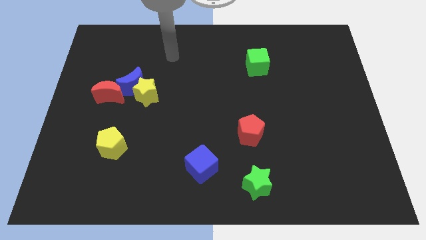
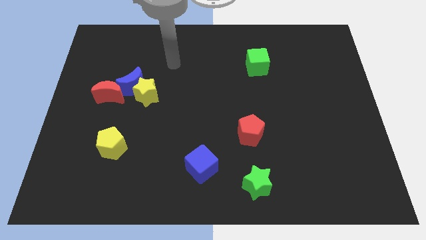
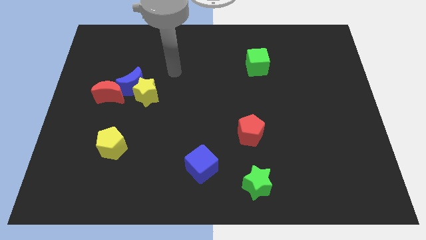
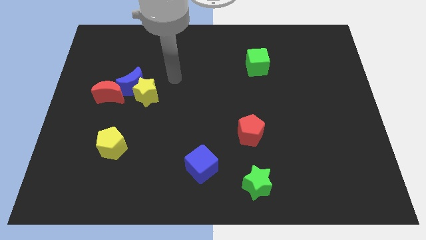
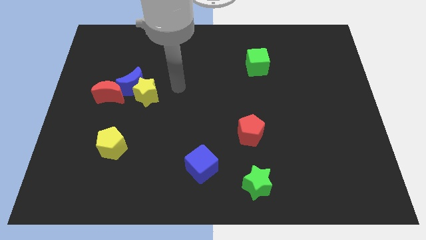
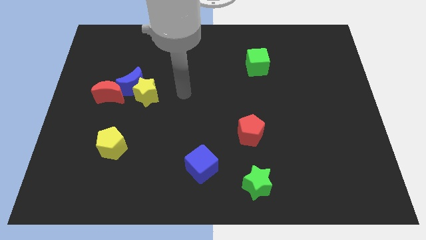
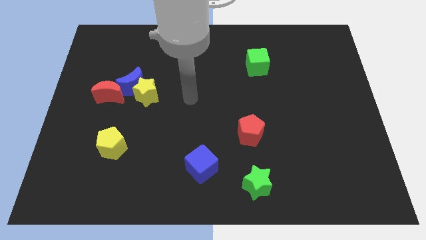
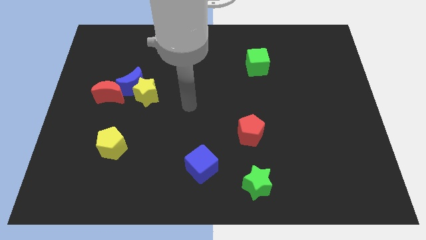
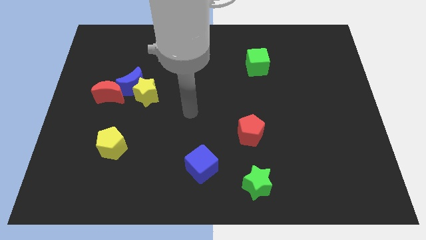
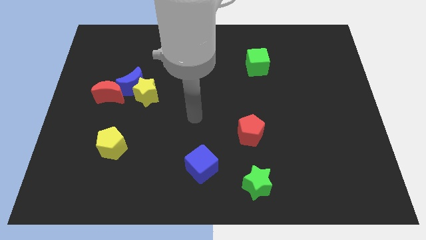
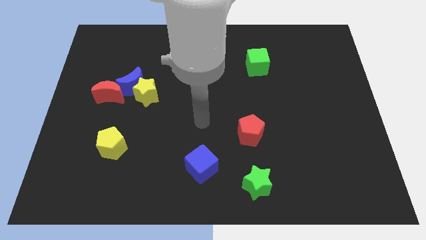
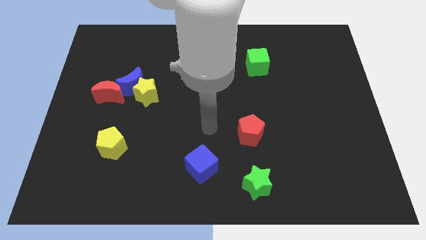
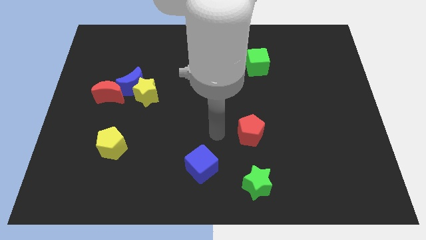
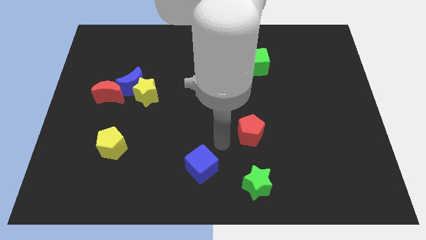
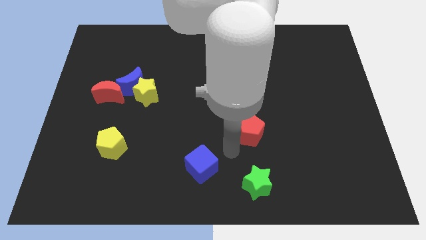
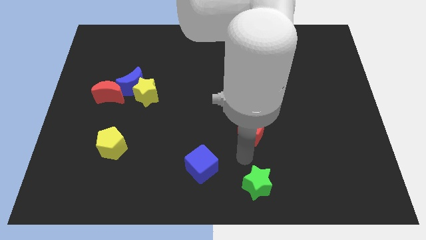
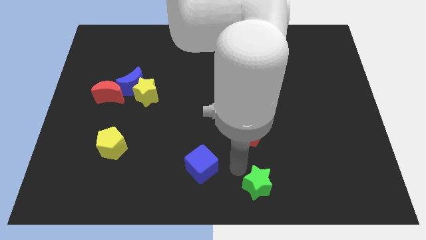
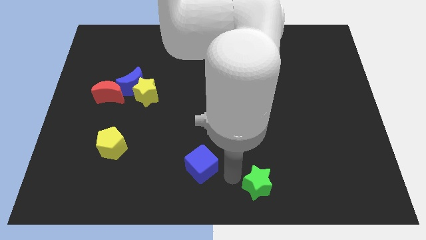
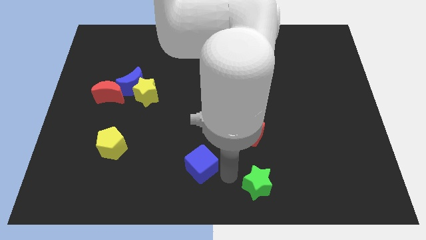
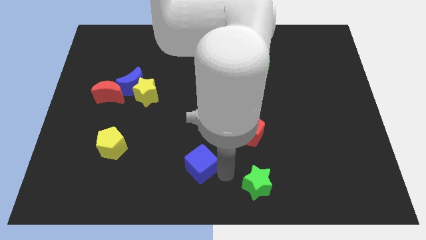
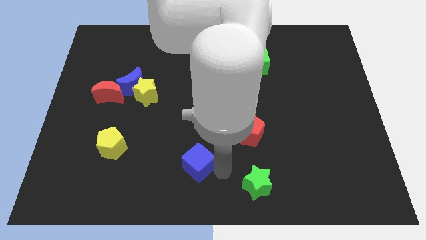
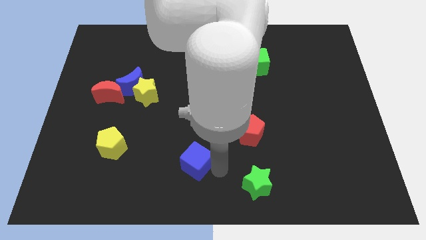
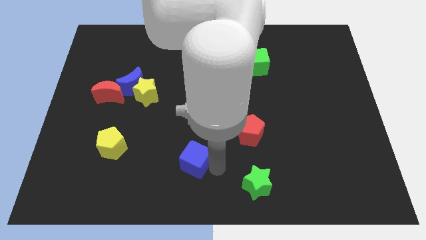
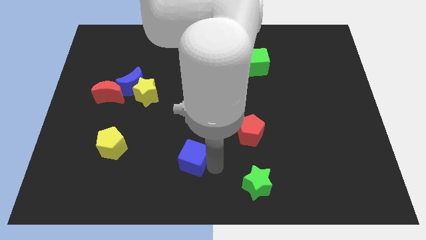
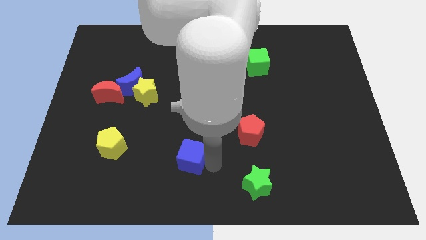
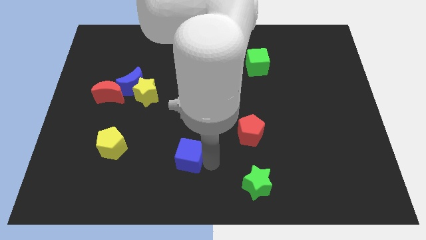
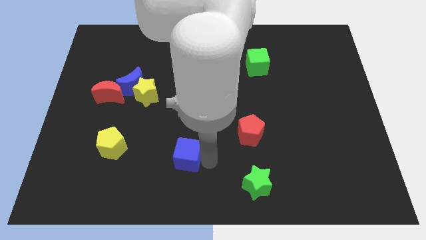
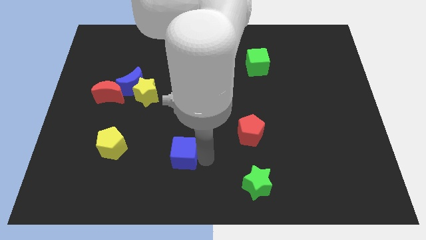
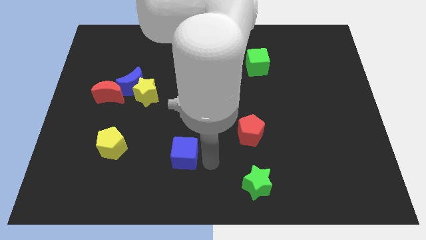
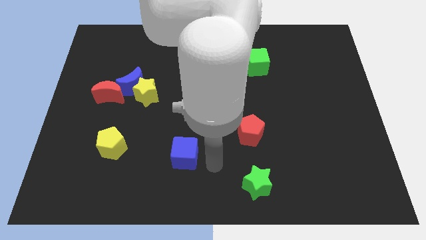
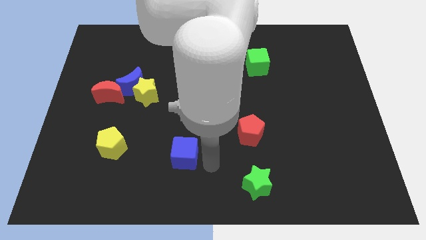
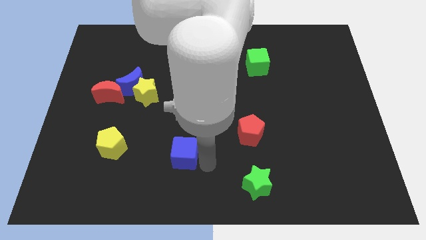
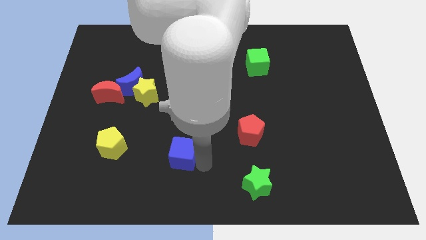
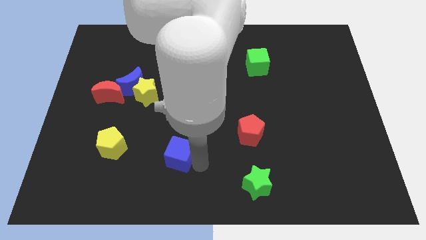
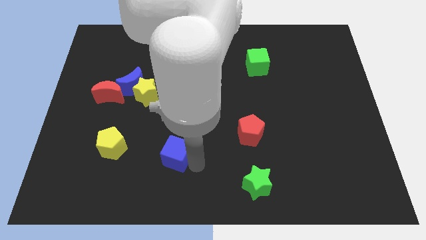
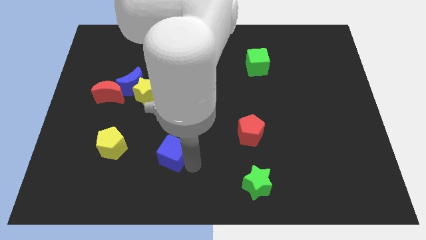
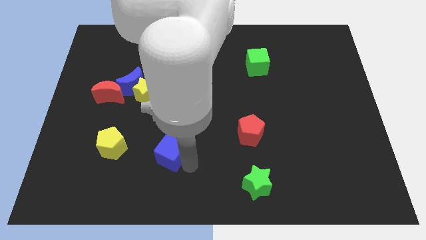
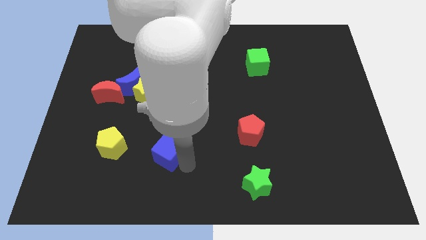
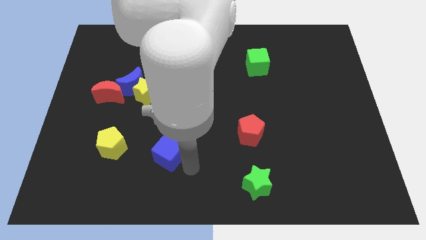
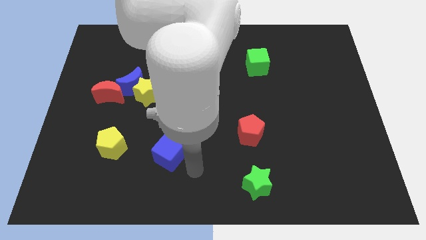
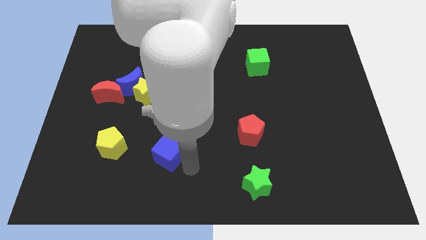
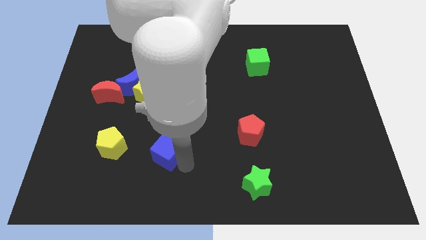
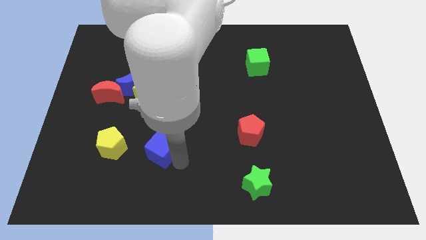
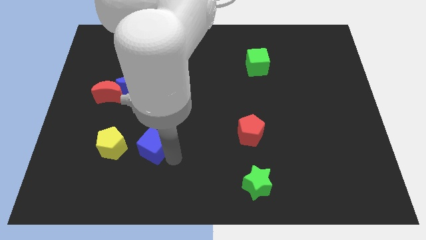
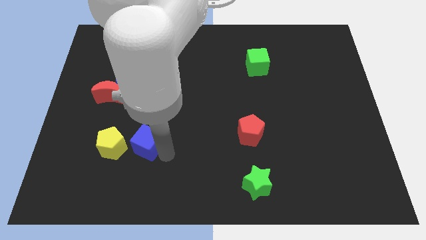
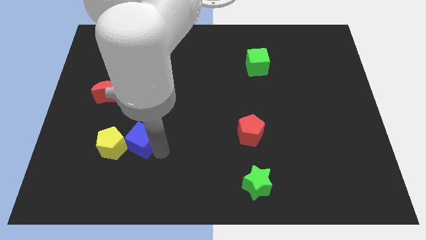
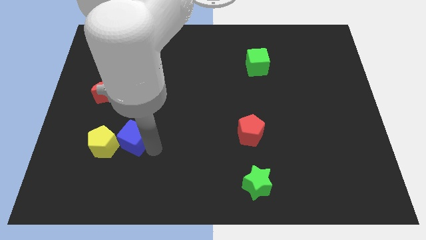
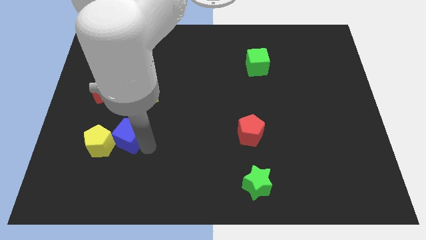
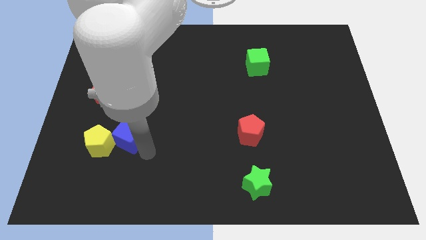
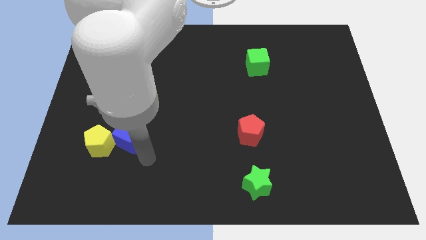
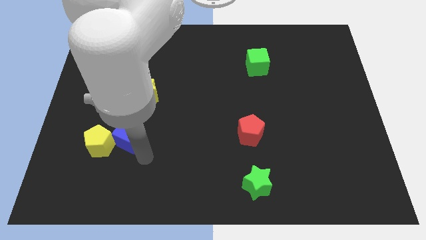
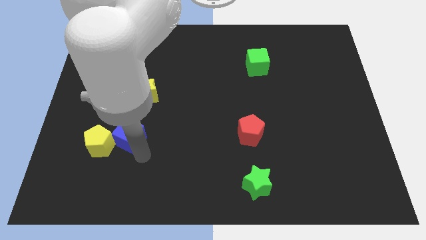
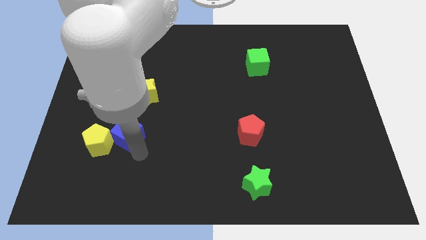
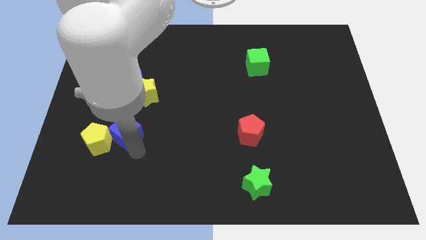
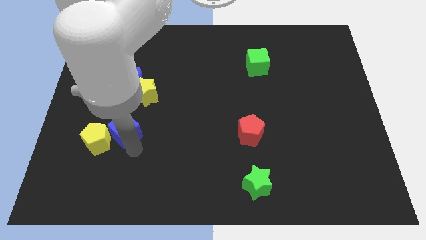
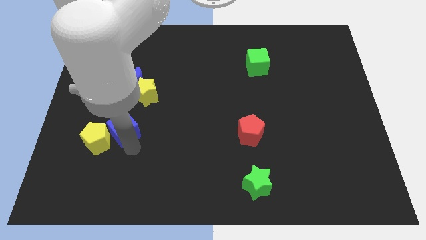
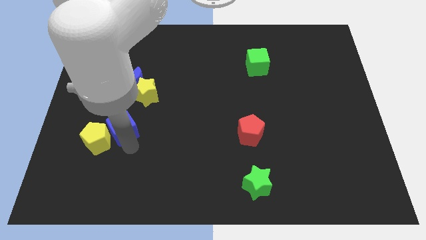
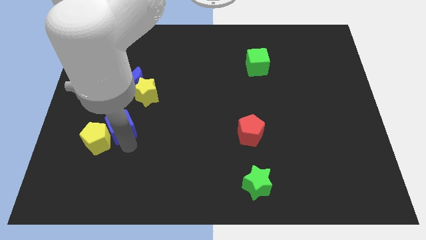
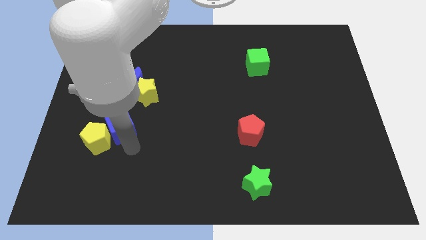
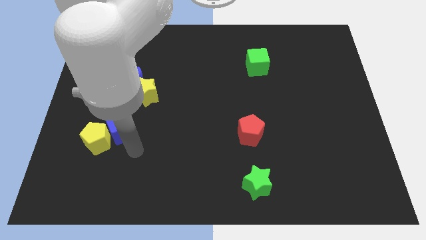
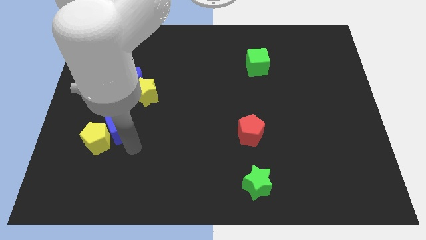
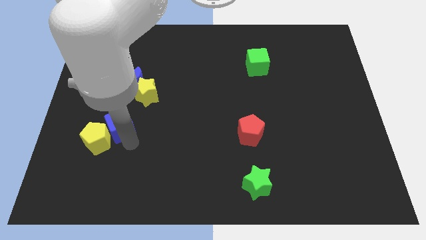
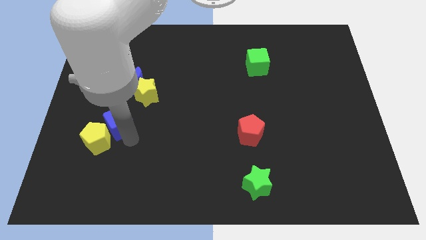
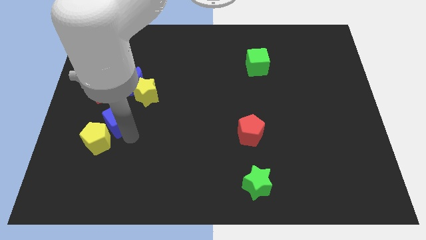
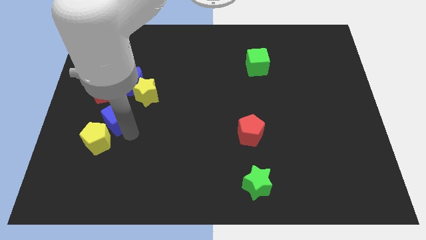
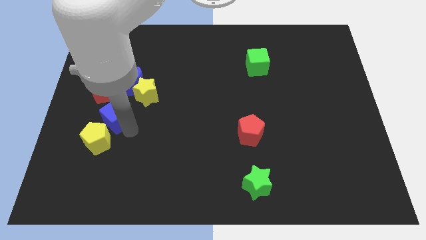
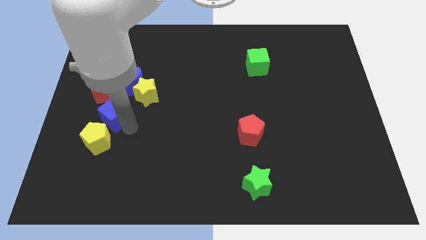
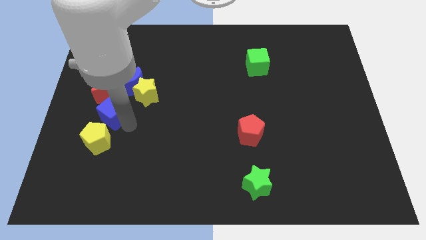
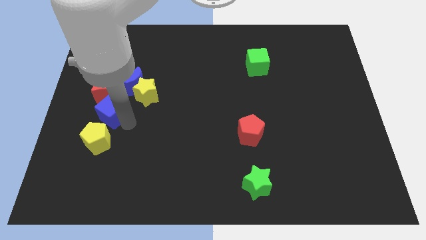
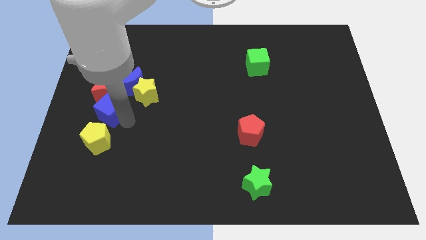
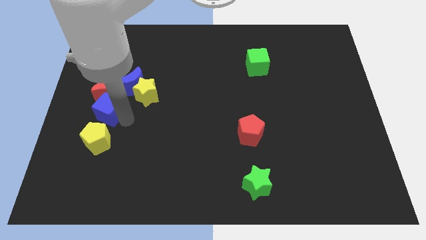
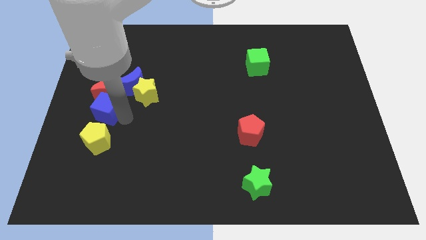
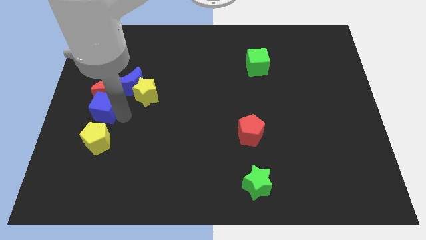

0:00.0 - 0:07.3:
move the blue cube to the center left
